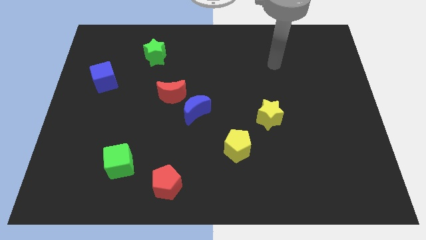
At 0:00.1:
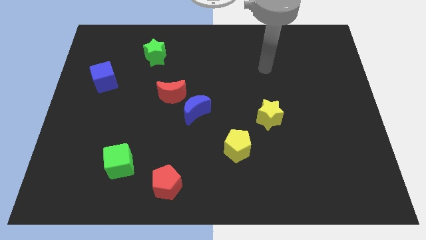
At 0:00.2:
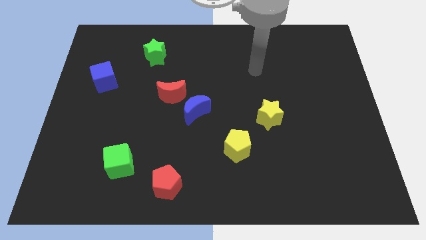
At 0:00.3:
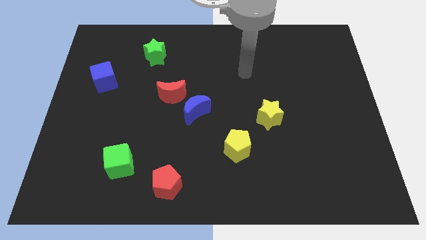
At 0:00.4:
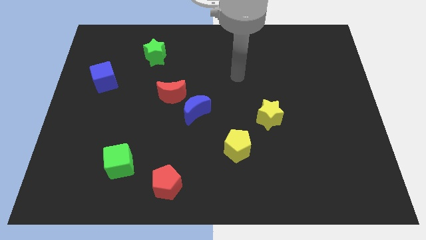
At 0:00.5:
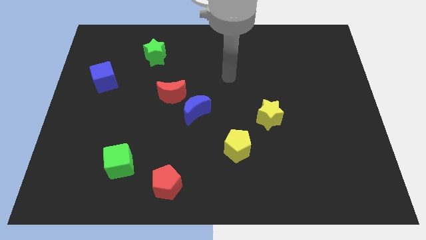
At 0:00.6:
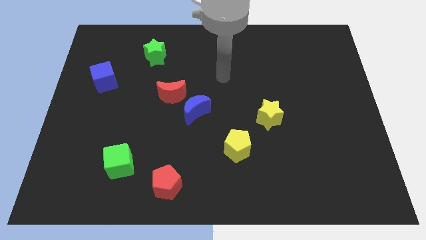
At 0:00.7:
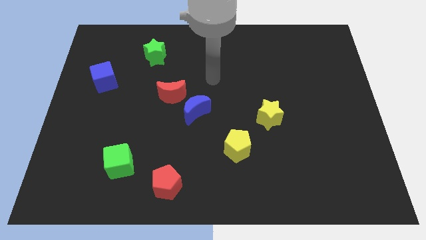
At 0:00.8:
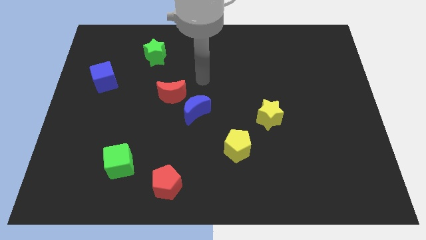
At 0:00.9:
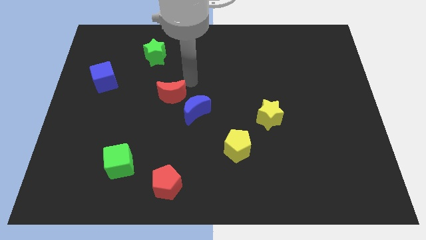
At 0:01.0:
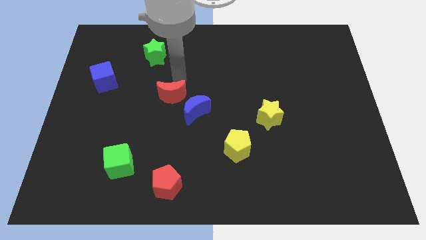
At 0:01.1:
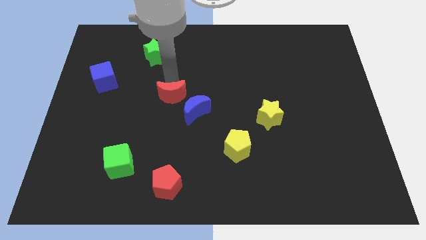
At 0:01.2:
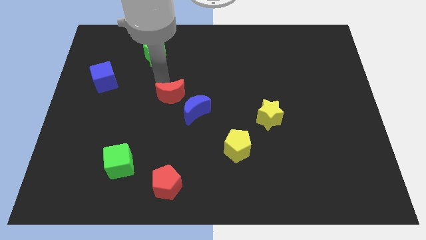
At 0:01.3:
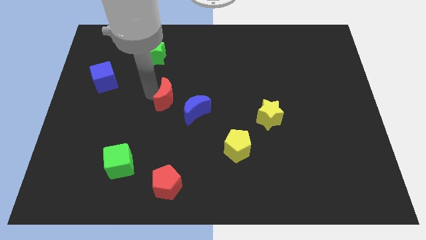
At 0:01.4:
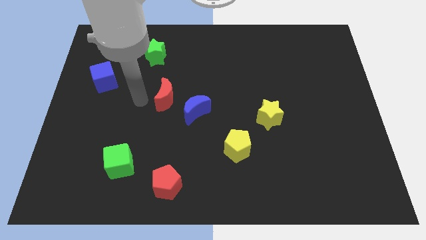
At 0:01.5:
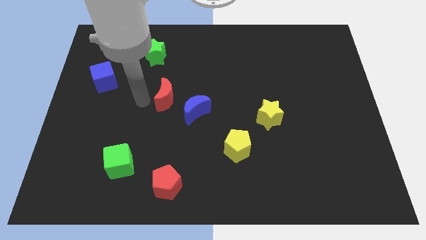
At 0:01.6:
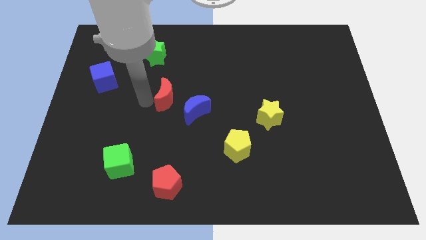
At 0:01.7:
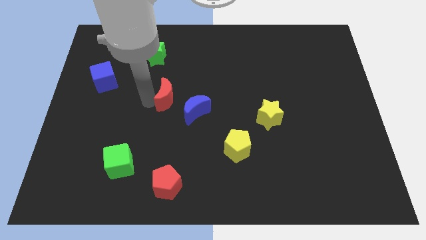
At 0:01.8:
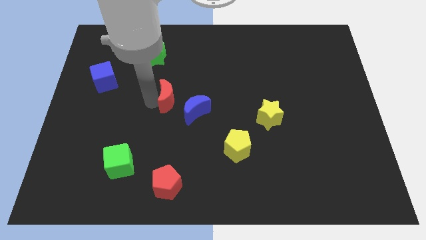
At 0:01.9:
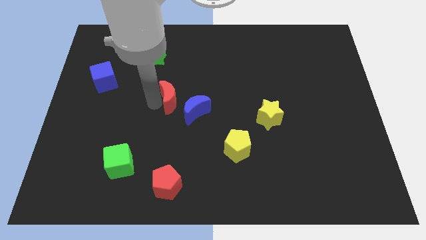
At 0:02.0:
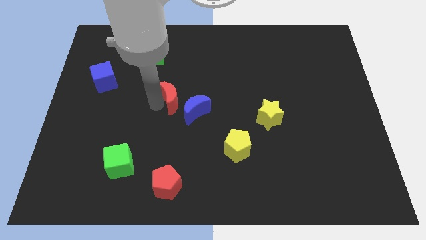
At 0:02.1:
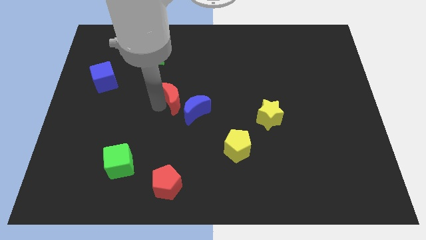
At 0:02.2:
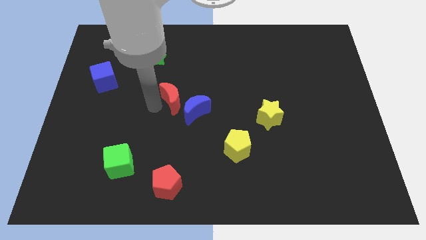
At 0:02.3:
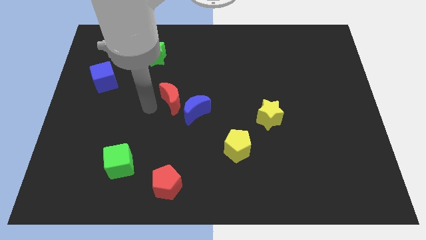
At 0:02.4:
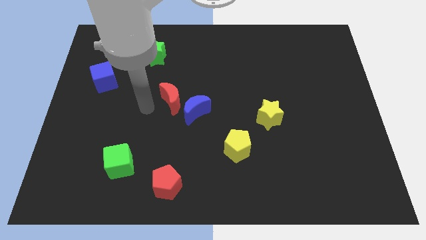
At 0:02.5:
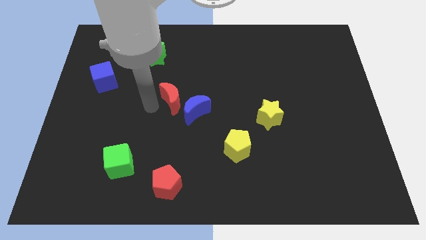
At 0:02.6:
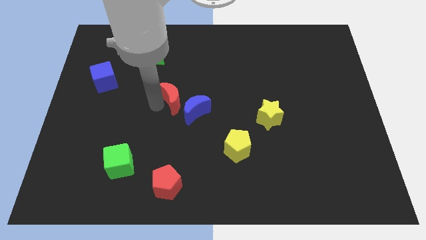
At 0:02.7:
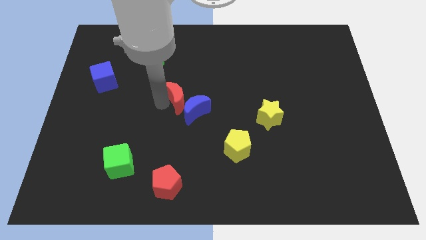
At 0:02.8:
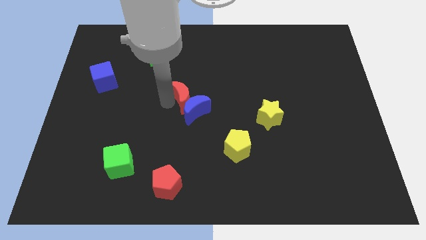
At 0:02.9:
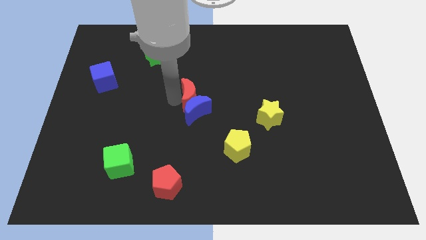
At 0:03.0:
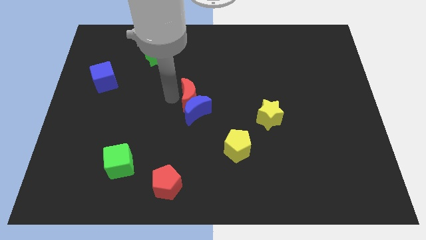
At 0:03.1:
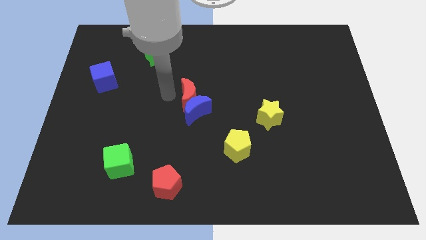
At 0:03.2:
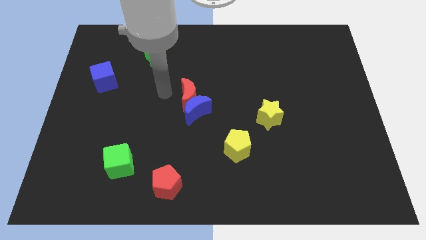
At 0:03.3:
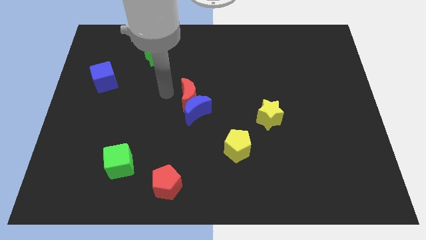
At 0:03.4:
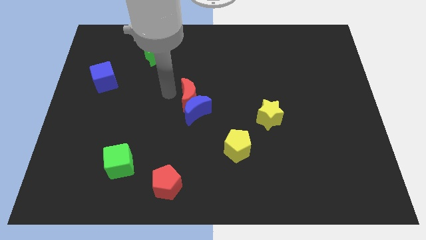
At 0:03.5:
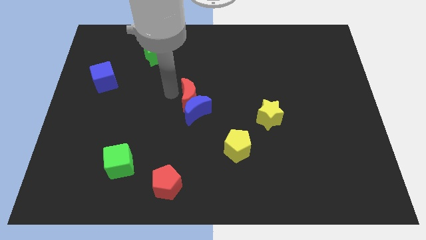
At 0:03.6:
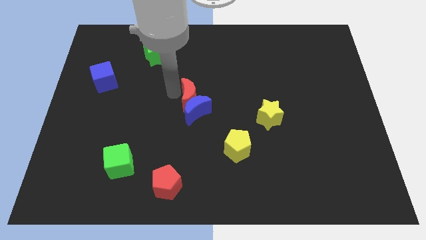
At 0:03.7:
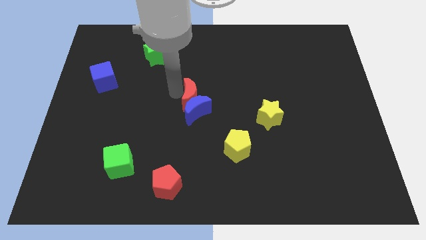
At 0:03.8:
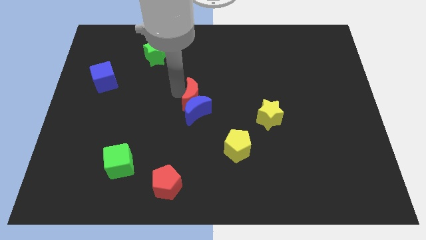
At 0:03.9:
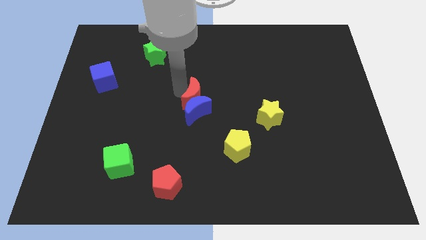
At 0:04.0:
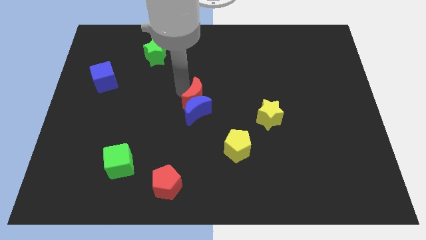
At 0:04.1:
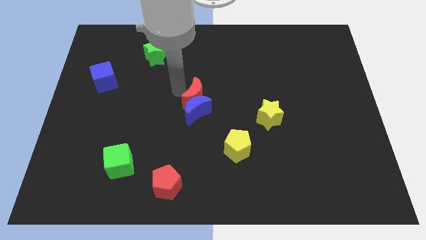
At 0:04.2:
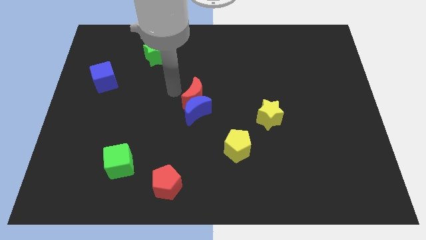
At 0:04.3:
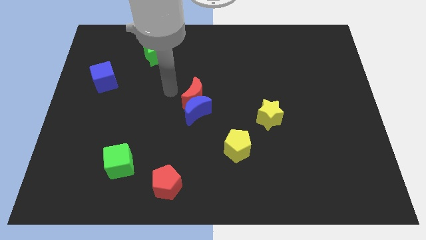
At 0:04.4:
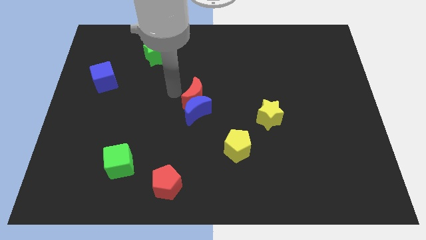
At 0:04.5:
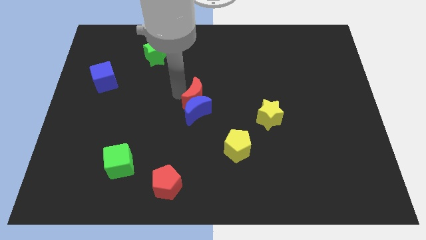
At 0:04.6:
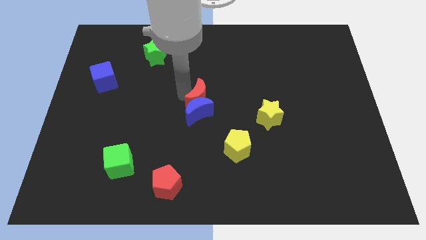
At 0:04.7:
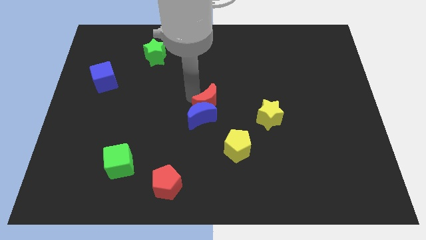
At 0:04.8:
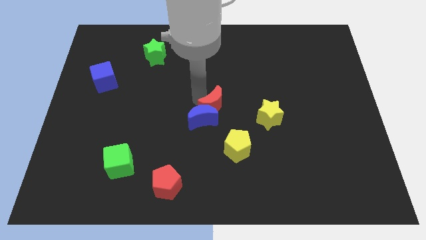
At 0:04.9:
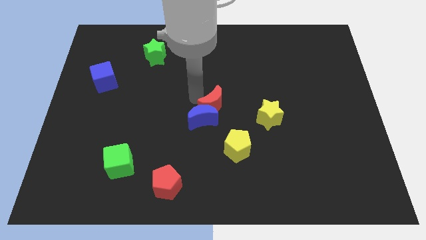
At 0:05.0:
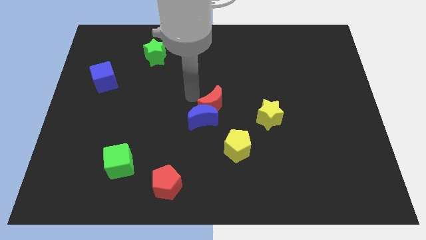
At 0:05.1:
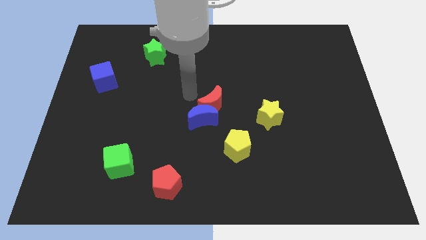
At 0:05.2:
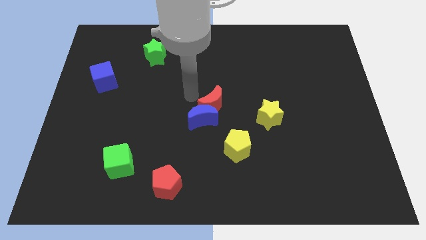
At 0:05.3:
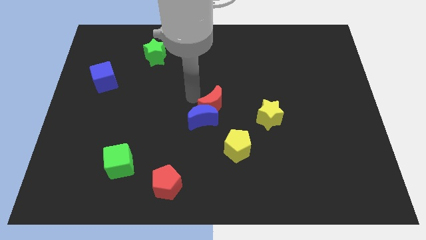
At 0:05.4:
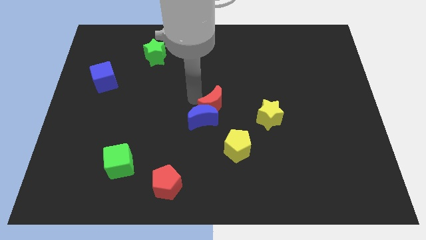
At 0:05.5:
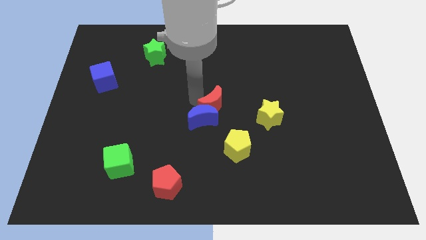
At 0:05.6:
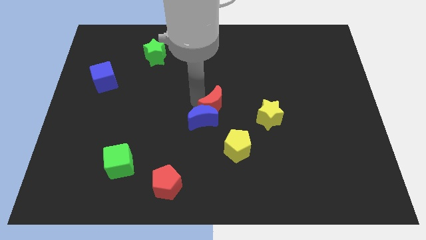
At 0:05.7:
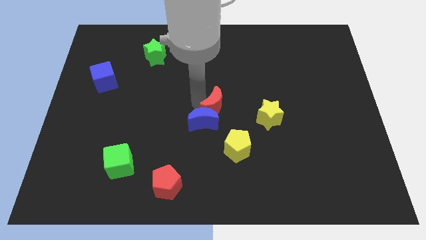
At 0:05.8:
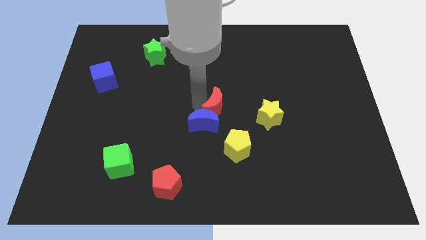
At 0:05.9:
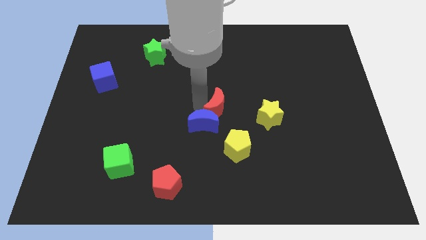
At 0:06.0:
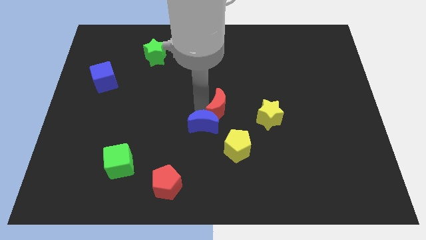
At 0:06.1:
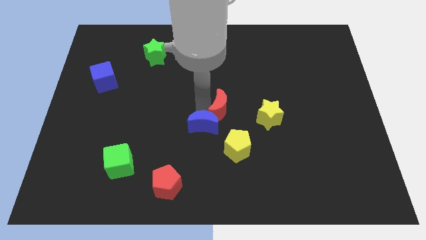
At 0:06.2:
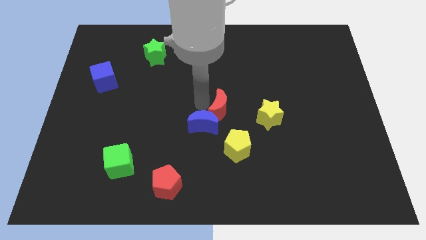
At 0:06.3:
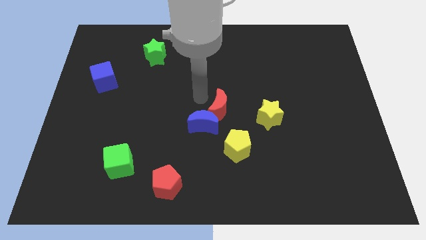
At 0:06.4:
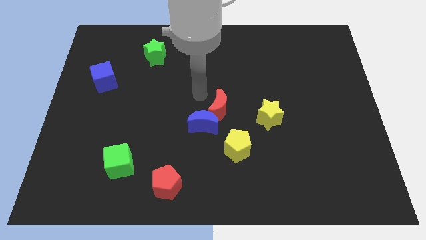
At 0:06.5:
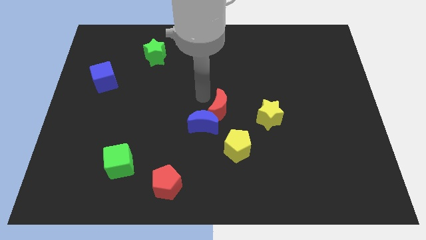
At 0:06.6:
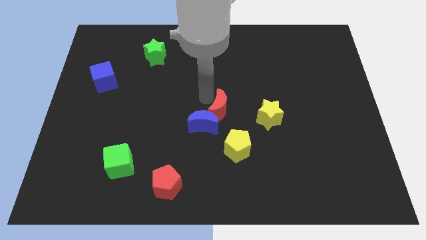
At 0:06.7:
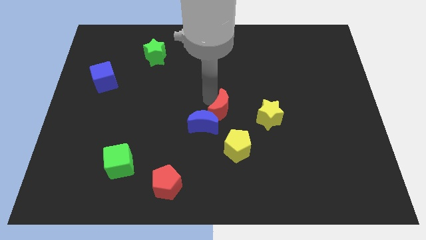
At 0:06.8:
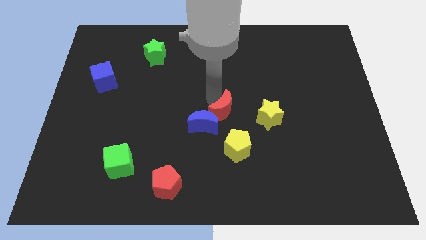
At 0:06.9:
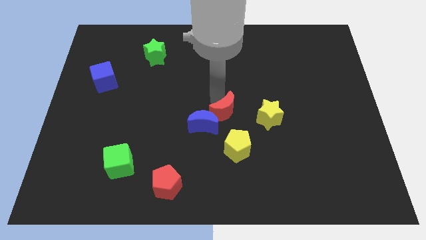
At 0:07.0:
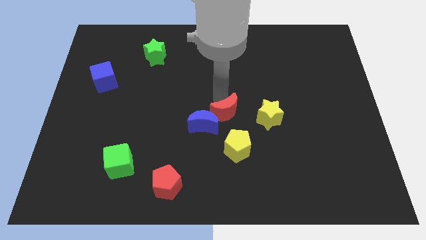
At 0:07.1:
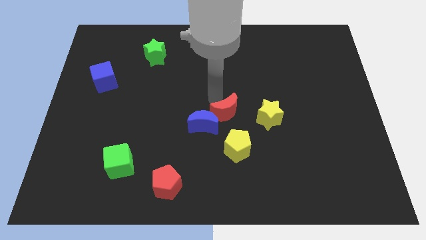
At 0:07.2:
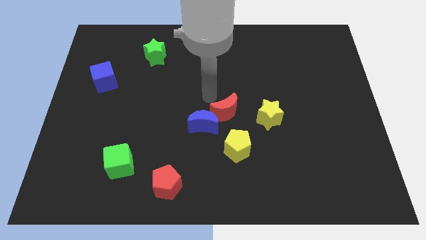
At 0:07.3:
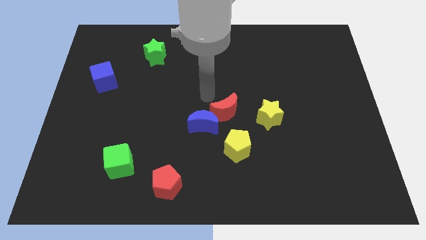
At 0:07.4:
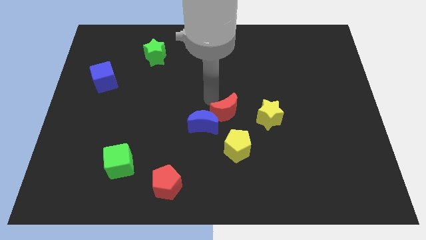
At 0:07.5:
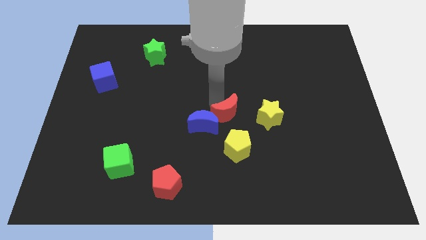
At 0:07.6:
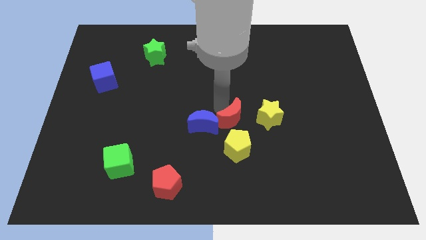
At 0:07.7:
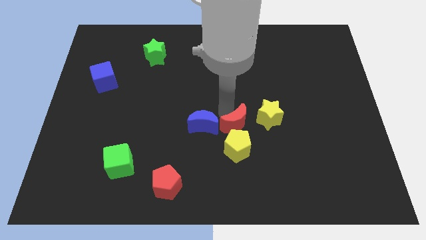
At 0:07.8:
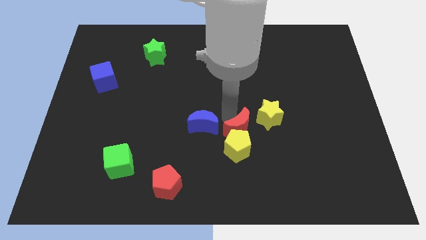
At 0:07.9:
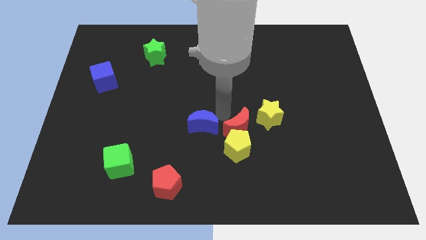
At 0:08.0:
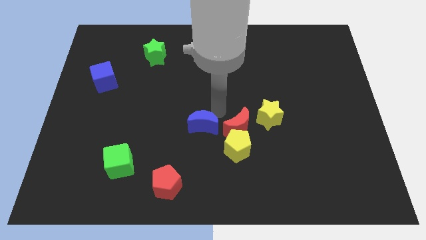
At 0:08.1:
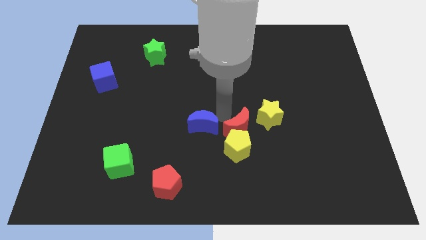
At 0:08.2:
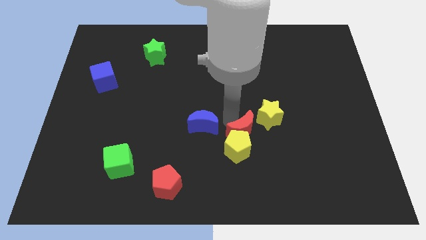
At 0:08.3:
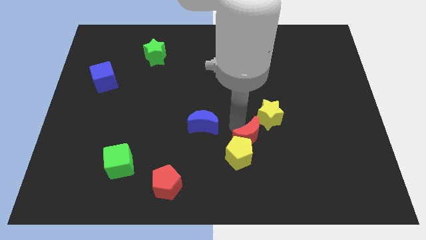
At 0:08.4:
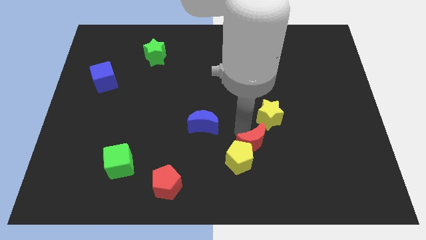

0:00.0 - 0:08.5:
put the red moon below the yellow star

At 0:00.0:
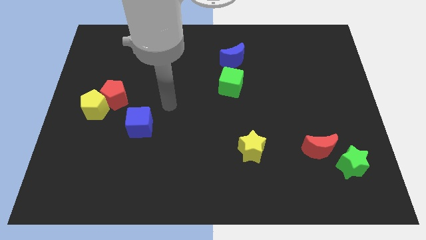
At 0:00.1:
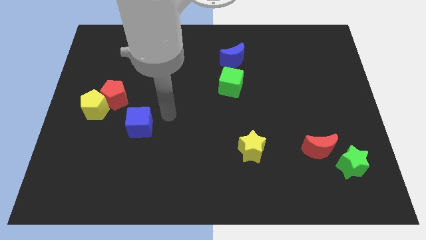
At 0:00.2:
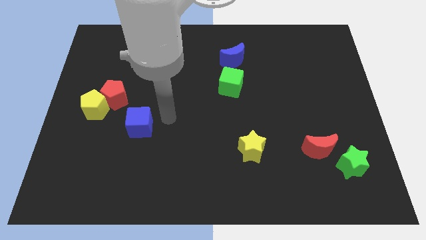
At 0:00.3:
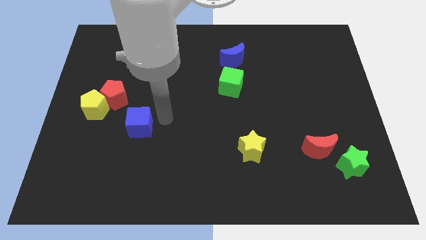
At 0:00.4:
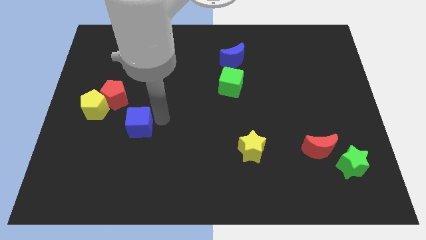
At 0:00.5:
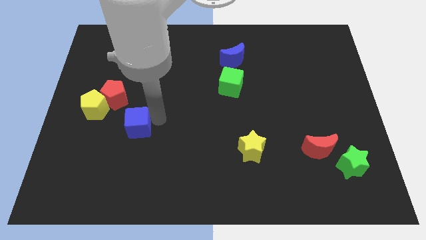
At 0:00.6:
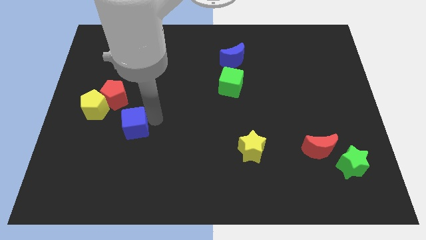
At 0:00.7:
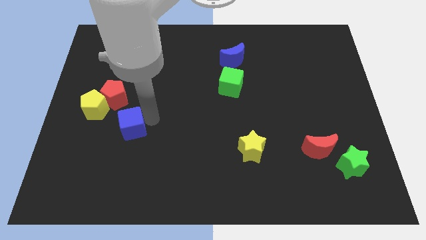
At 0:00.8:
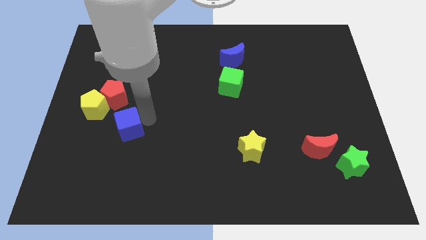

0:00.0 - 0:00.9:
put the blue cube to the bottom side of the red pentagon
